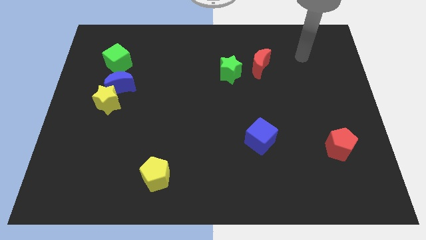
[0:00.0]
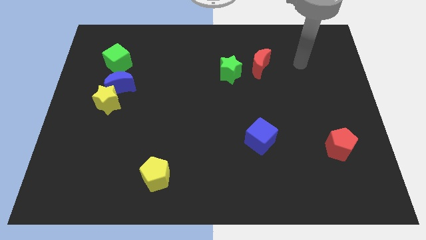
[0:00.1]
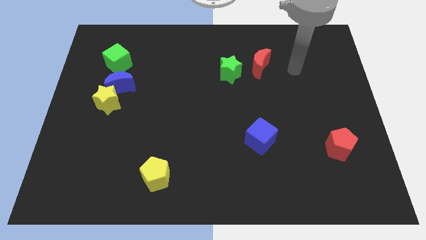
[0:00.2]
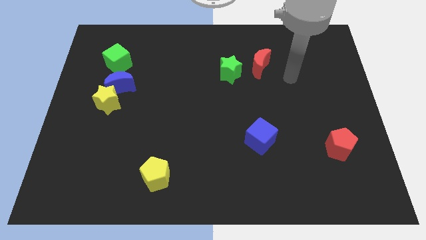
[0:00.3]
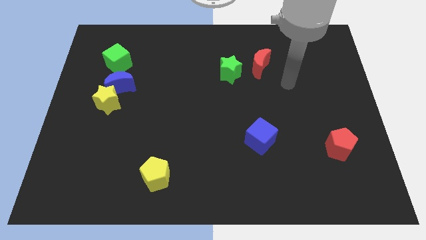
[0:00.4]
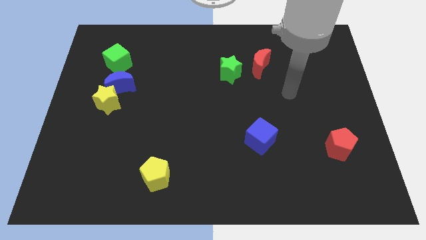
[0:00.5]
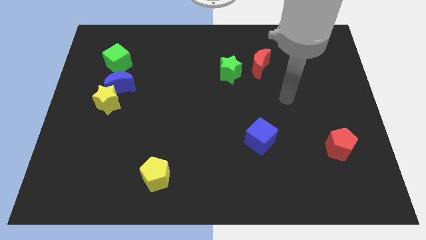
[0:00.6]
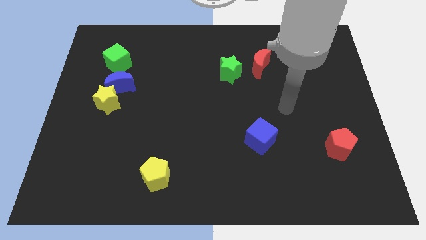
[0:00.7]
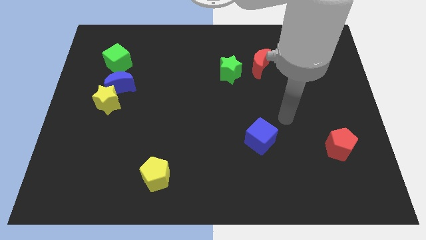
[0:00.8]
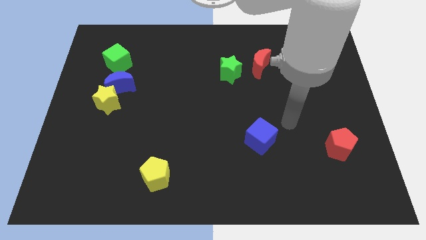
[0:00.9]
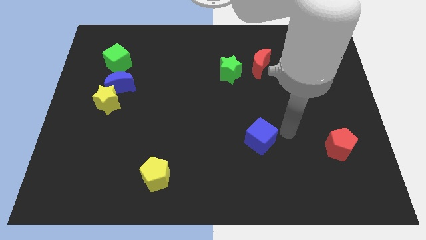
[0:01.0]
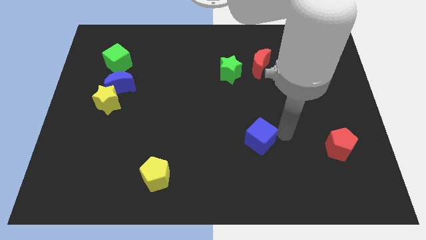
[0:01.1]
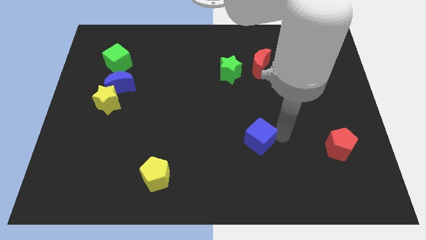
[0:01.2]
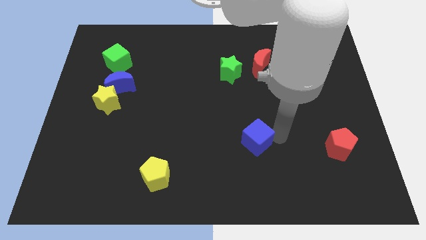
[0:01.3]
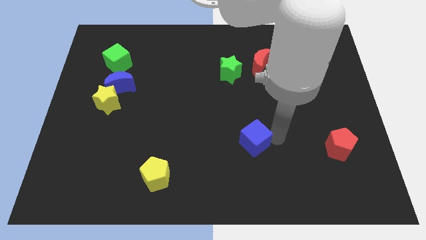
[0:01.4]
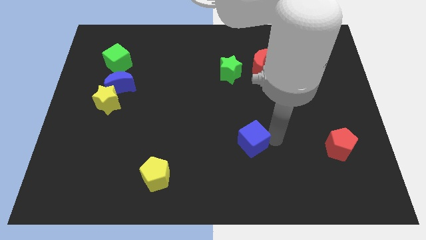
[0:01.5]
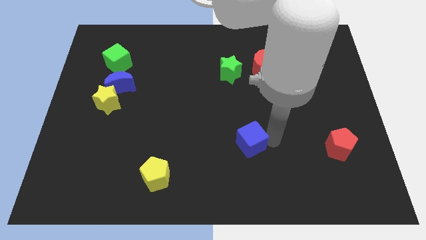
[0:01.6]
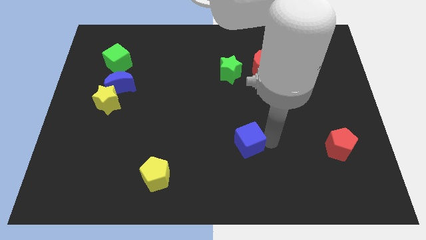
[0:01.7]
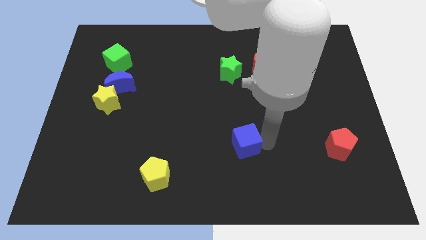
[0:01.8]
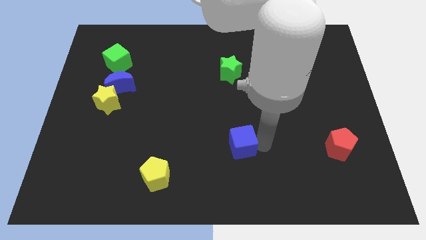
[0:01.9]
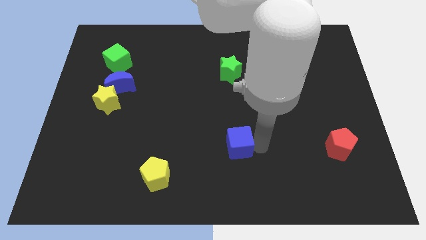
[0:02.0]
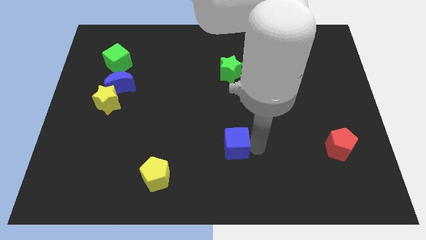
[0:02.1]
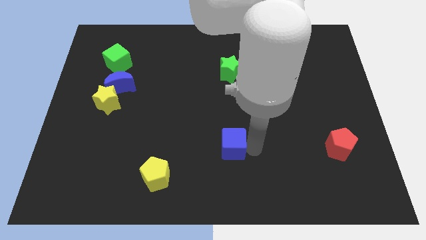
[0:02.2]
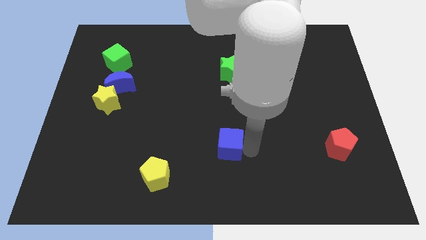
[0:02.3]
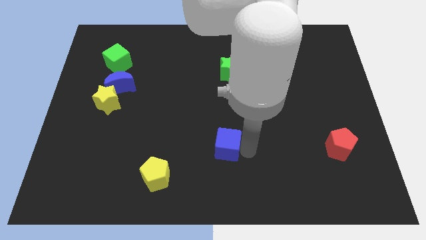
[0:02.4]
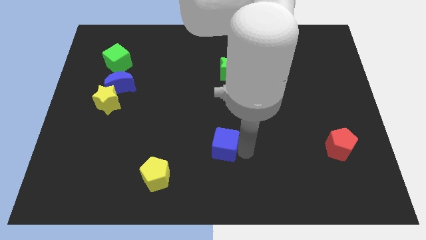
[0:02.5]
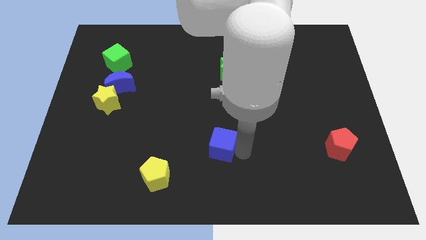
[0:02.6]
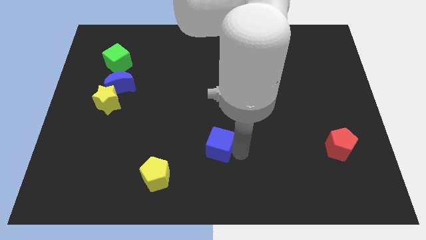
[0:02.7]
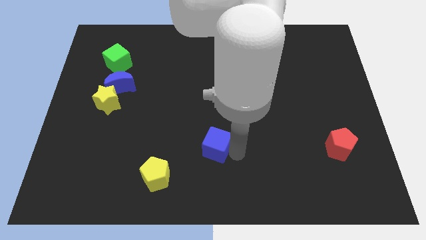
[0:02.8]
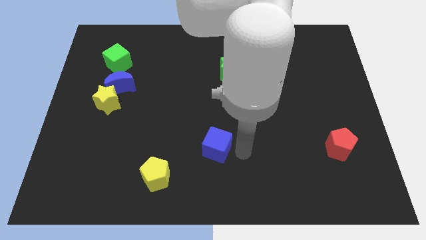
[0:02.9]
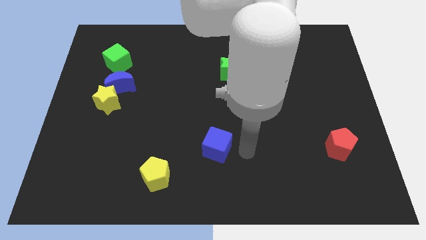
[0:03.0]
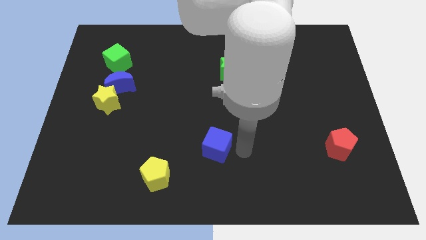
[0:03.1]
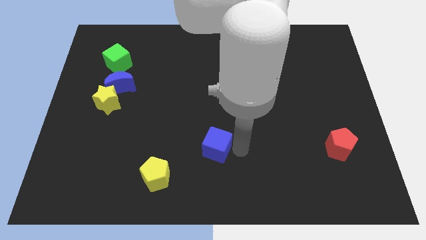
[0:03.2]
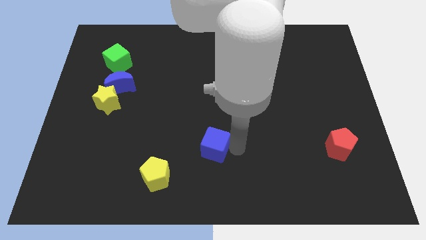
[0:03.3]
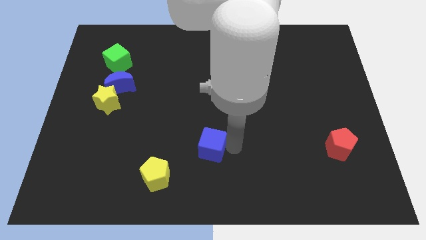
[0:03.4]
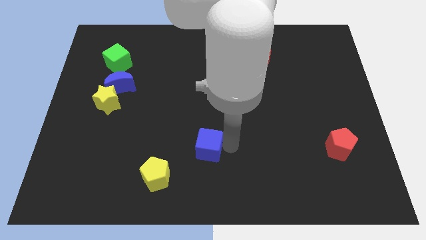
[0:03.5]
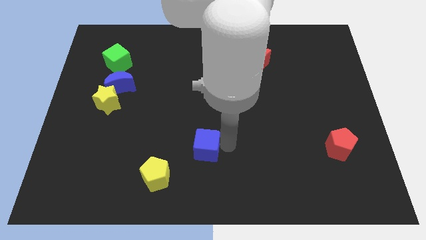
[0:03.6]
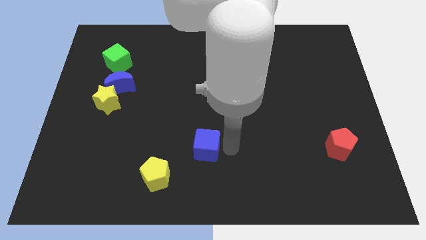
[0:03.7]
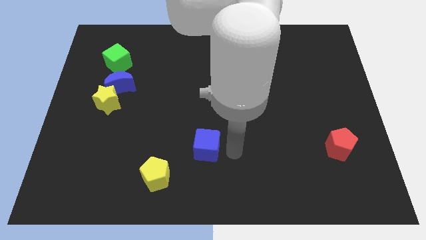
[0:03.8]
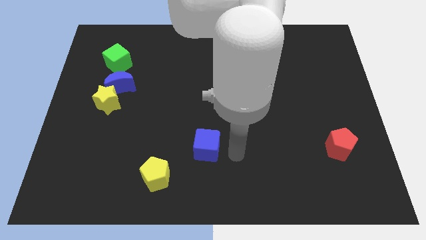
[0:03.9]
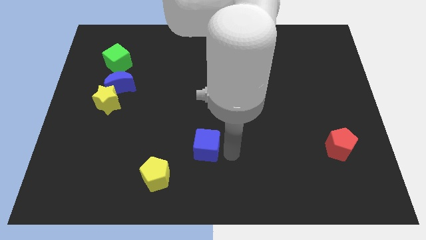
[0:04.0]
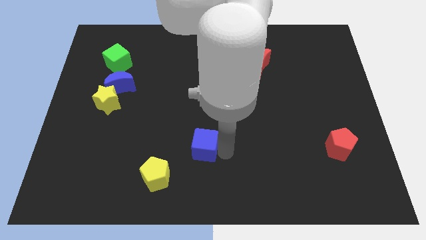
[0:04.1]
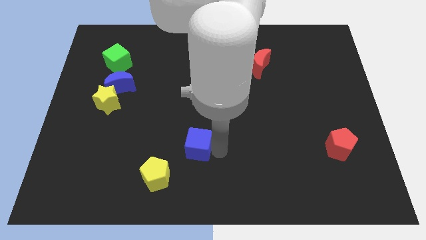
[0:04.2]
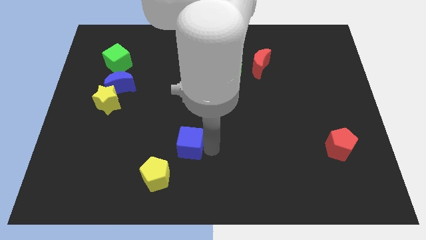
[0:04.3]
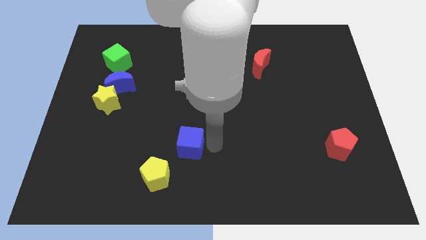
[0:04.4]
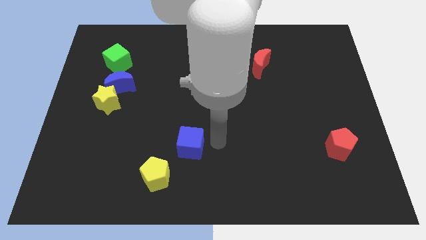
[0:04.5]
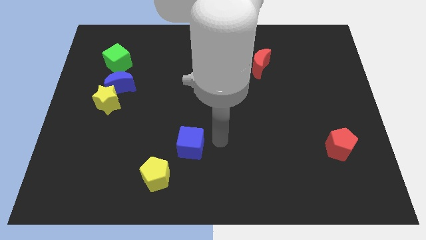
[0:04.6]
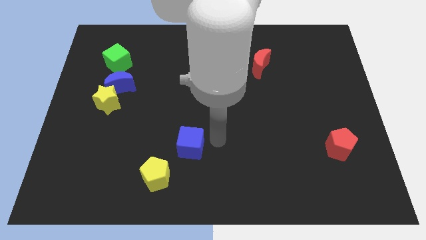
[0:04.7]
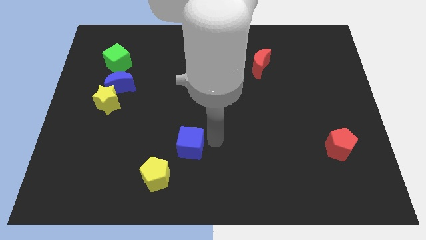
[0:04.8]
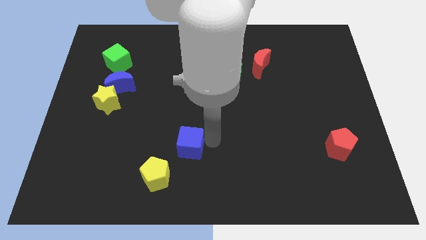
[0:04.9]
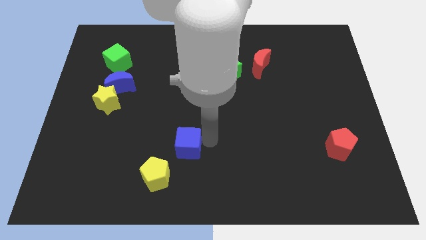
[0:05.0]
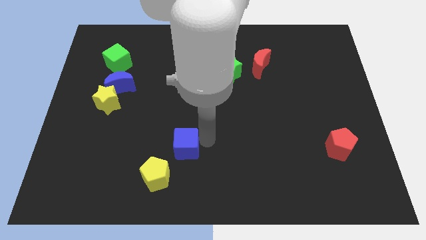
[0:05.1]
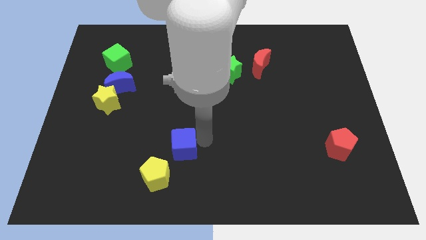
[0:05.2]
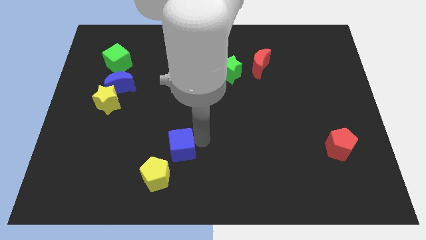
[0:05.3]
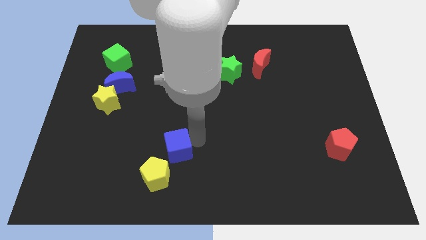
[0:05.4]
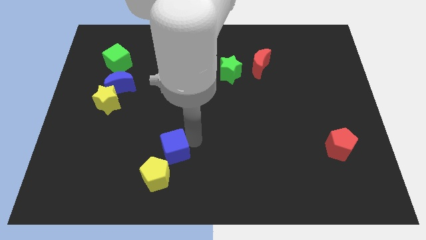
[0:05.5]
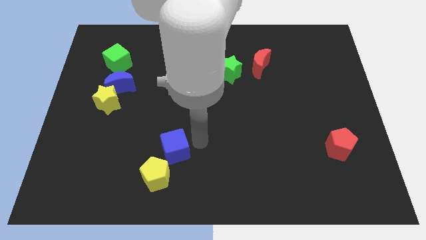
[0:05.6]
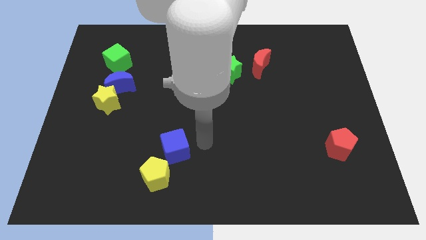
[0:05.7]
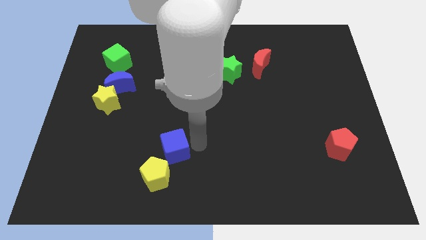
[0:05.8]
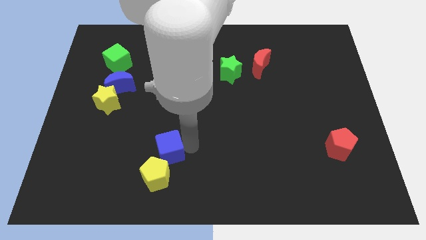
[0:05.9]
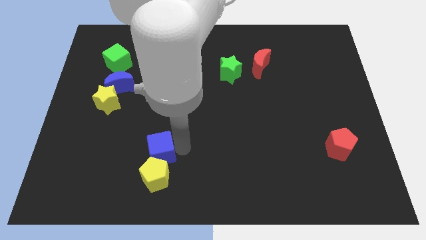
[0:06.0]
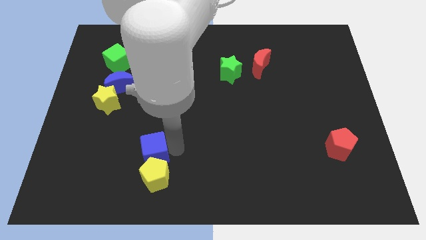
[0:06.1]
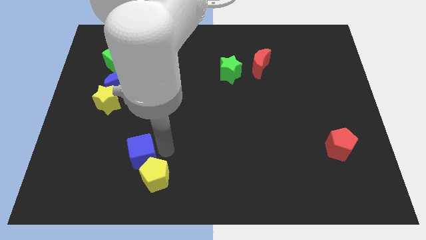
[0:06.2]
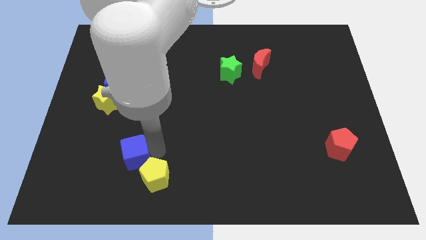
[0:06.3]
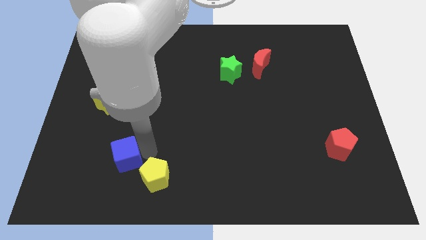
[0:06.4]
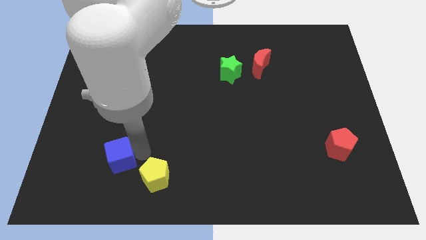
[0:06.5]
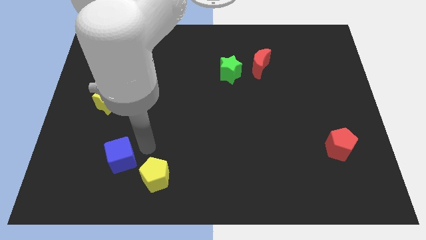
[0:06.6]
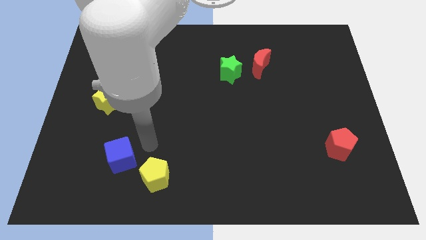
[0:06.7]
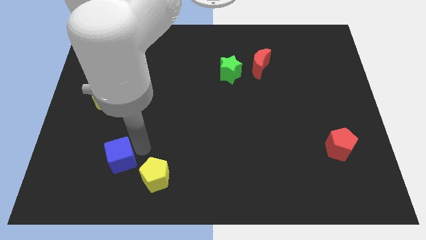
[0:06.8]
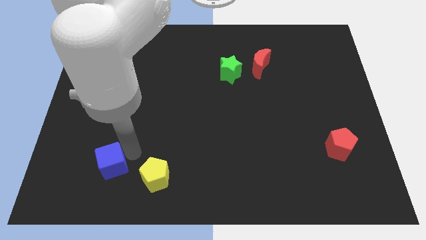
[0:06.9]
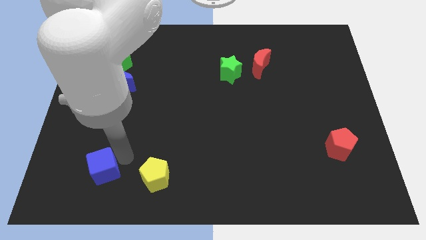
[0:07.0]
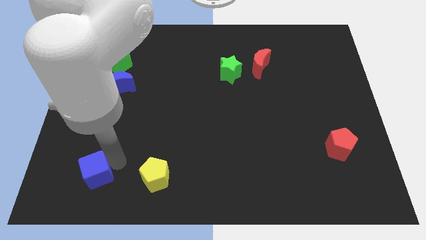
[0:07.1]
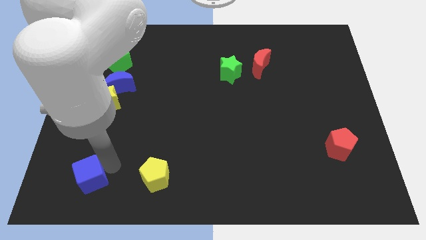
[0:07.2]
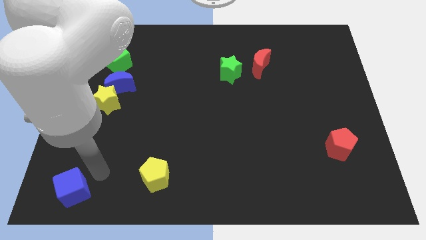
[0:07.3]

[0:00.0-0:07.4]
slide the blue cube to the bottom left of the board
